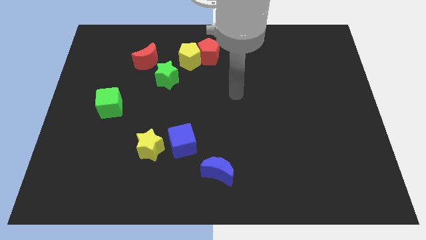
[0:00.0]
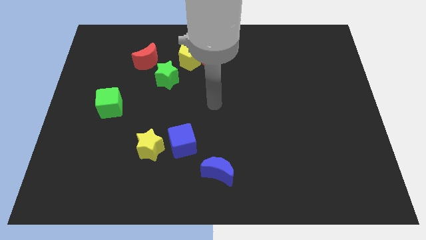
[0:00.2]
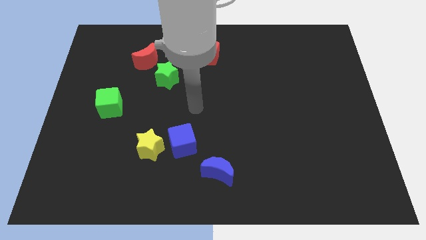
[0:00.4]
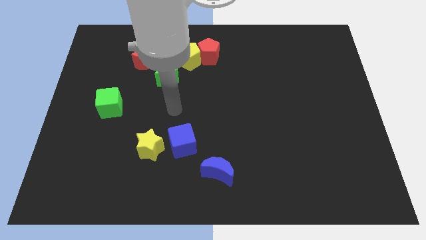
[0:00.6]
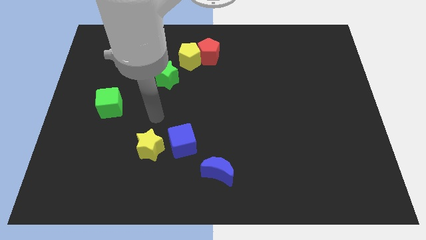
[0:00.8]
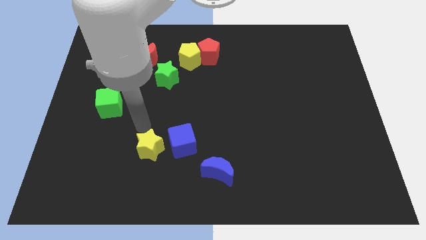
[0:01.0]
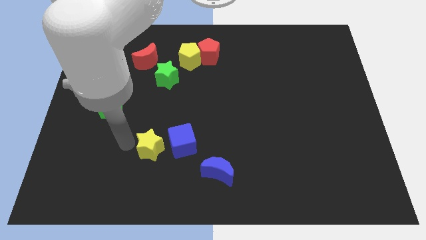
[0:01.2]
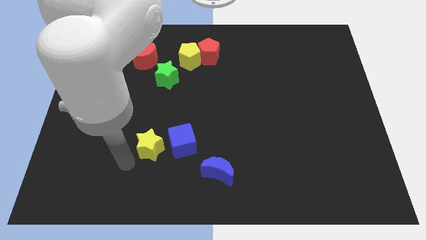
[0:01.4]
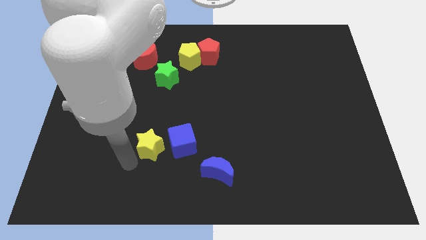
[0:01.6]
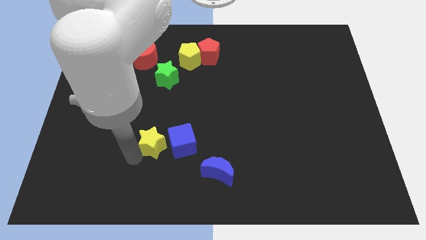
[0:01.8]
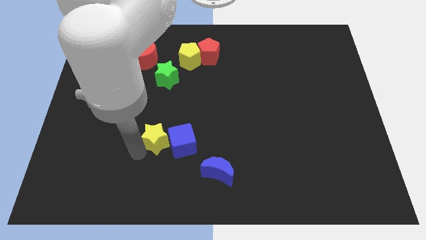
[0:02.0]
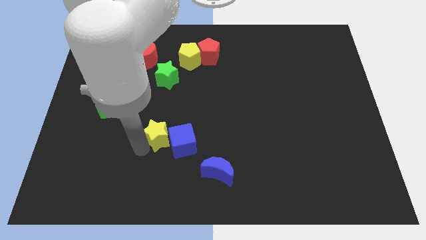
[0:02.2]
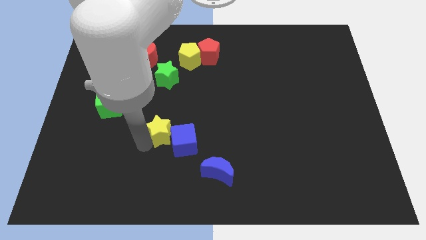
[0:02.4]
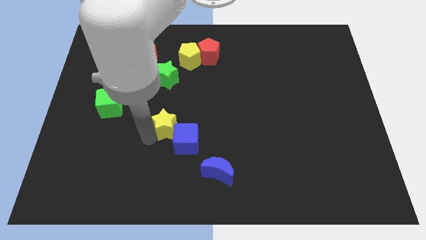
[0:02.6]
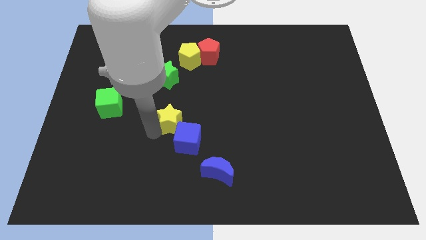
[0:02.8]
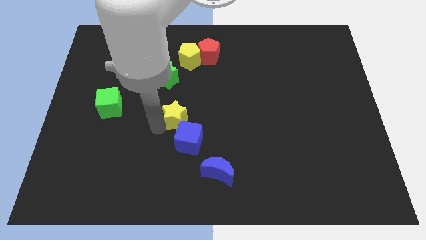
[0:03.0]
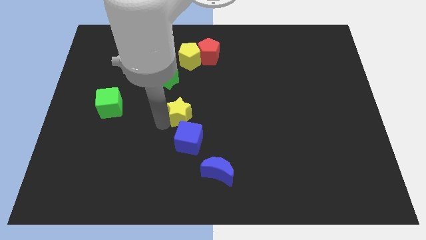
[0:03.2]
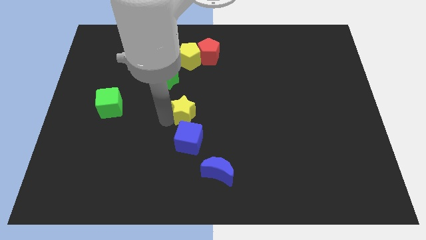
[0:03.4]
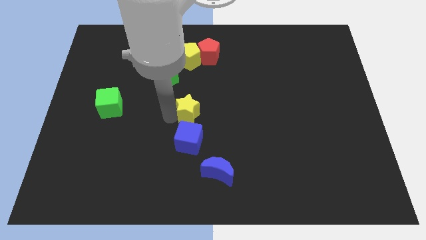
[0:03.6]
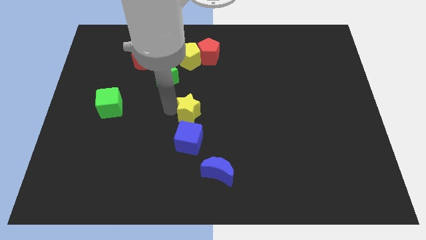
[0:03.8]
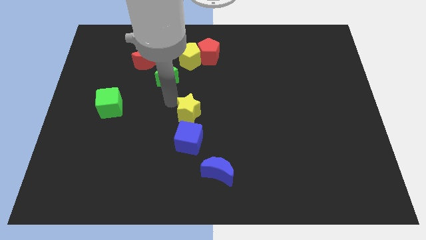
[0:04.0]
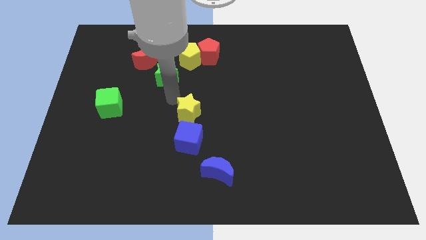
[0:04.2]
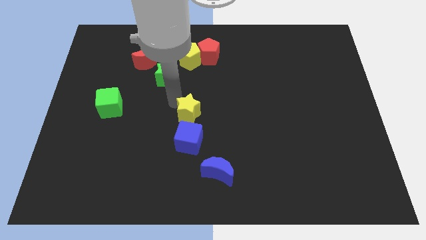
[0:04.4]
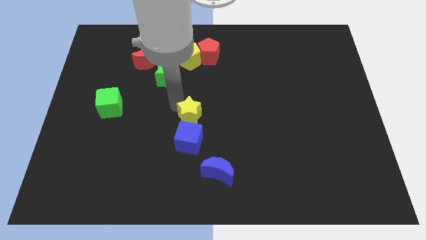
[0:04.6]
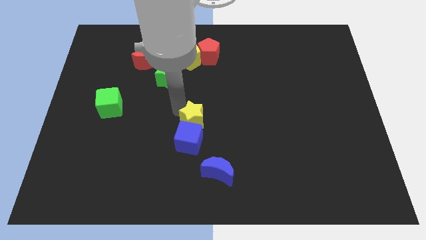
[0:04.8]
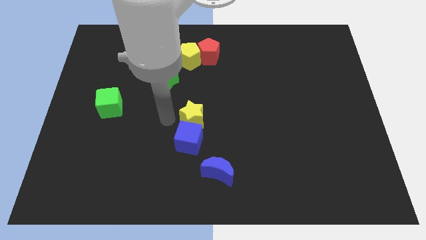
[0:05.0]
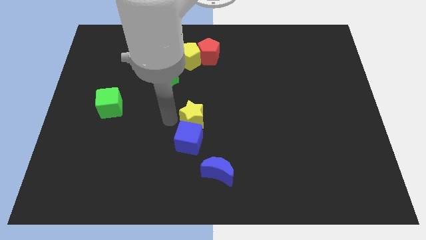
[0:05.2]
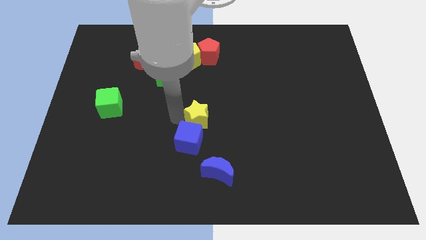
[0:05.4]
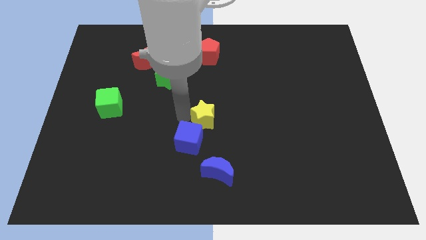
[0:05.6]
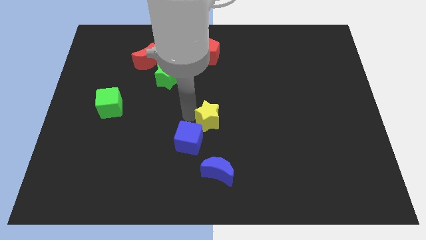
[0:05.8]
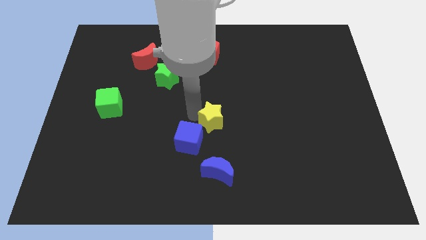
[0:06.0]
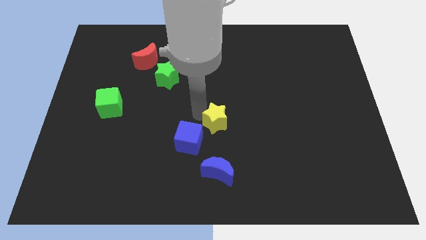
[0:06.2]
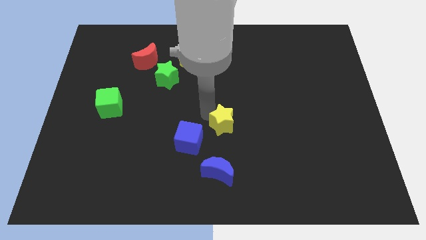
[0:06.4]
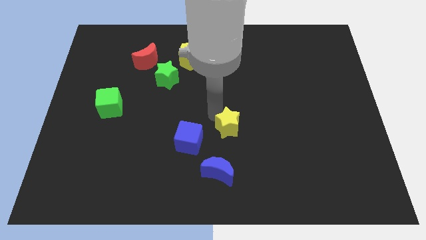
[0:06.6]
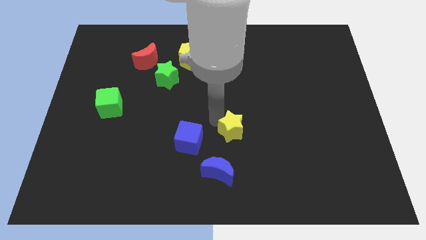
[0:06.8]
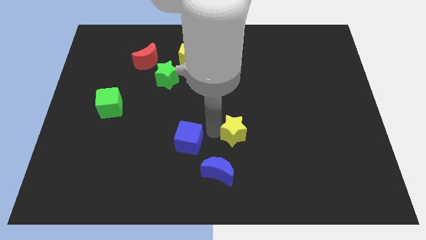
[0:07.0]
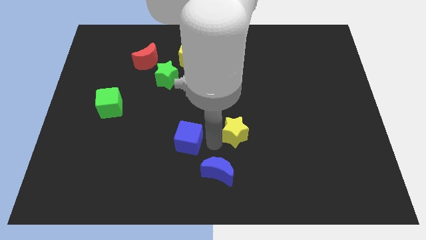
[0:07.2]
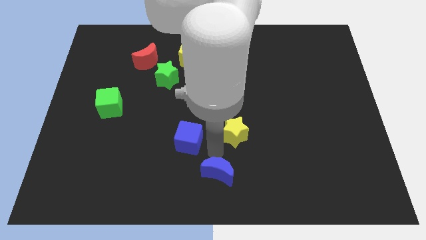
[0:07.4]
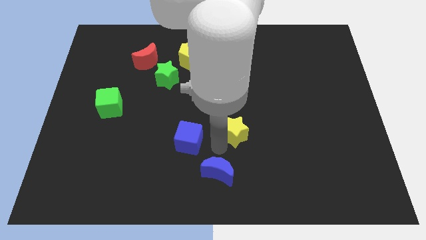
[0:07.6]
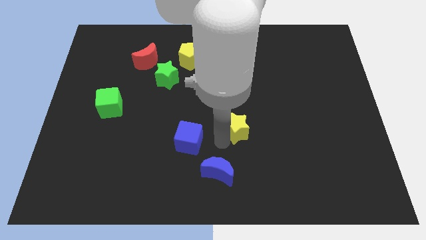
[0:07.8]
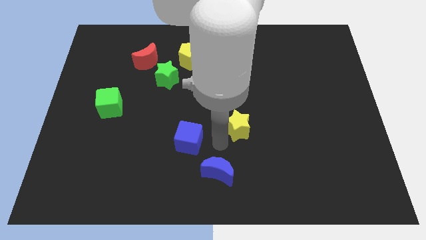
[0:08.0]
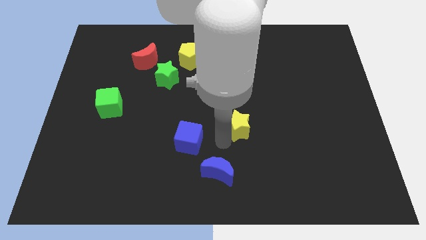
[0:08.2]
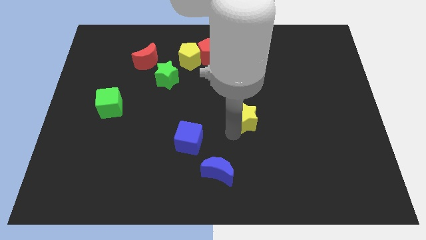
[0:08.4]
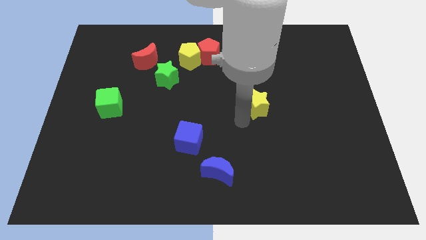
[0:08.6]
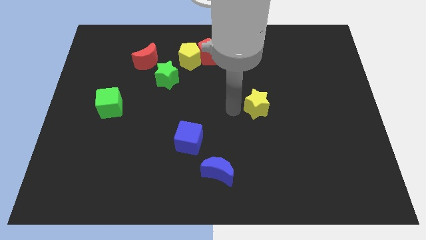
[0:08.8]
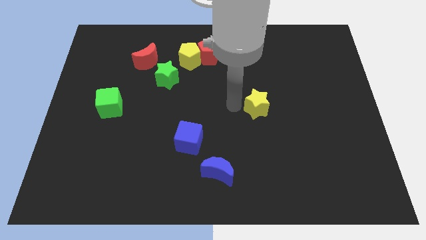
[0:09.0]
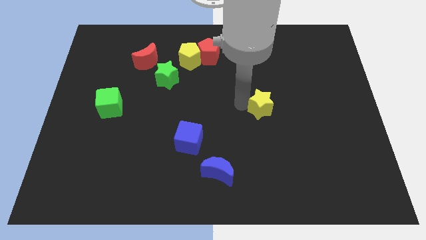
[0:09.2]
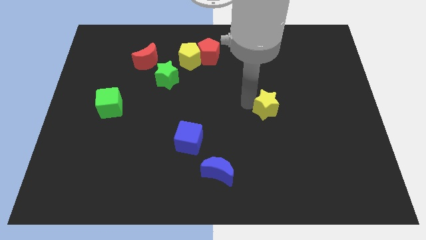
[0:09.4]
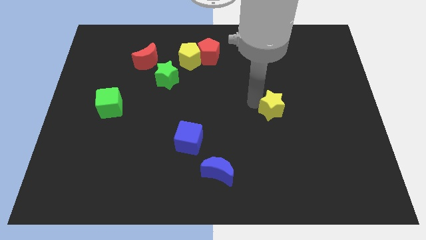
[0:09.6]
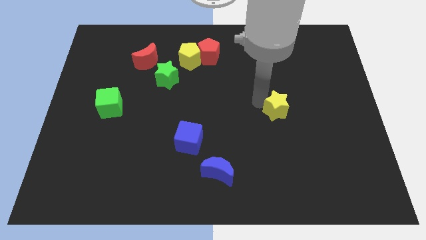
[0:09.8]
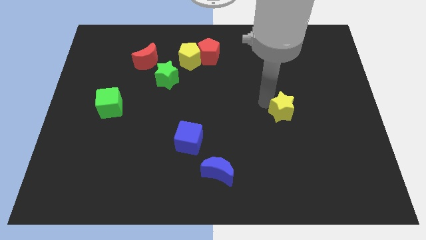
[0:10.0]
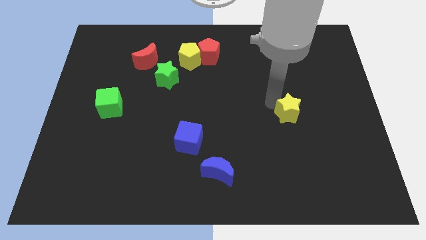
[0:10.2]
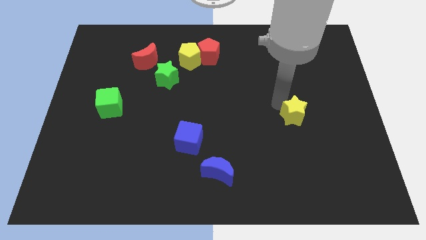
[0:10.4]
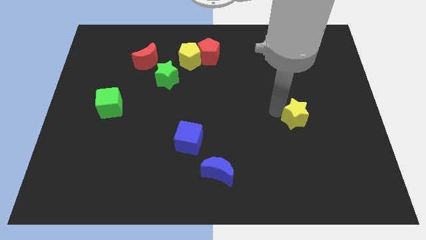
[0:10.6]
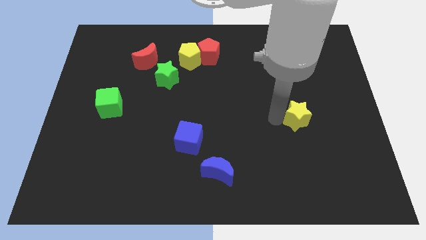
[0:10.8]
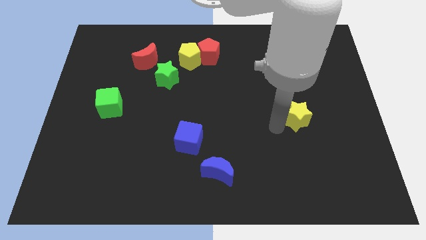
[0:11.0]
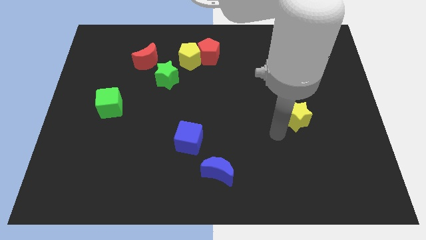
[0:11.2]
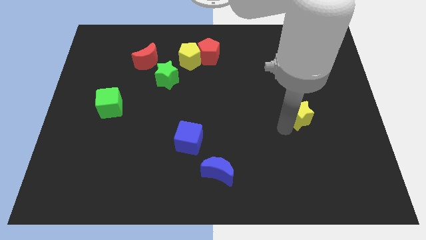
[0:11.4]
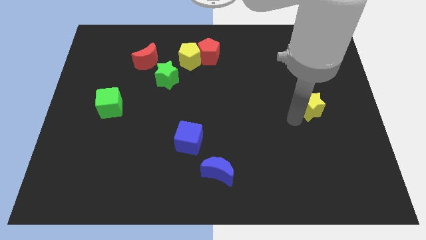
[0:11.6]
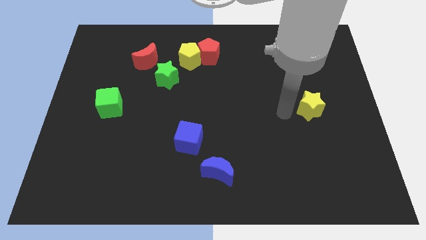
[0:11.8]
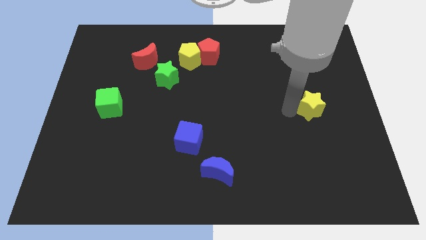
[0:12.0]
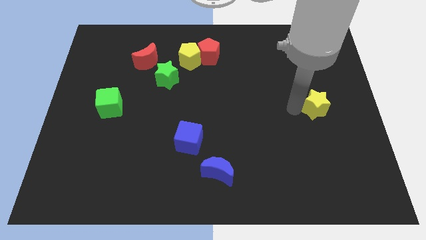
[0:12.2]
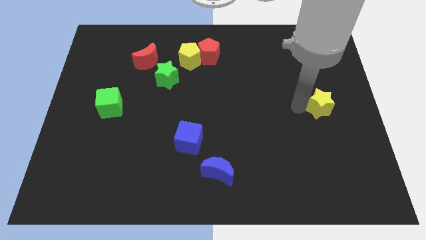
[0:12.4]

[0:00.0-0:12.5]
slide the yellow star to the right side of the board
